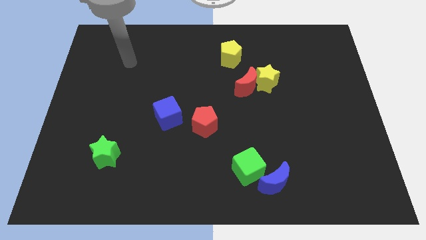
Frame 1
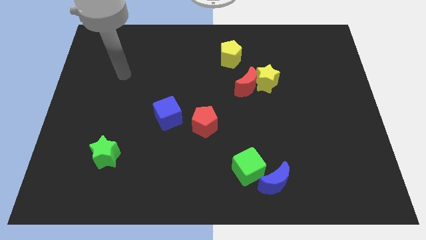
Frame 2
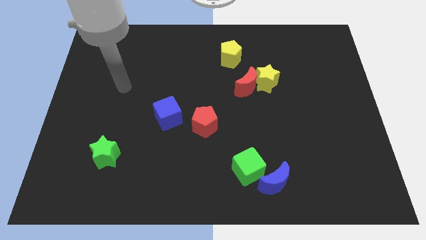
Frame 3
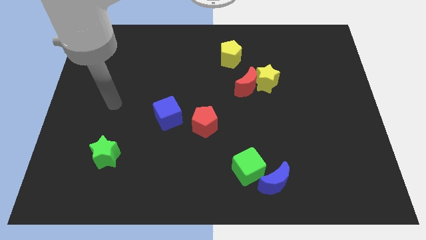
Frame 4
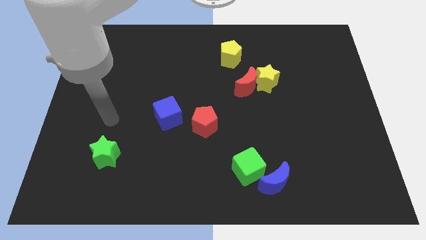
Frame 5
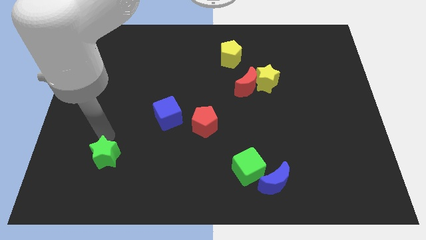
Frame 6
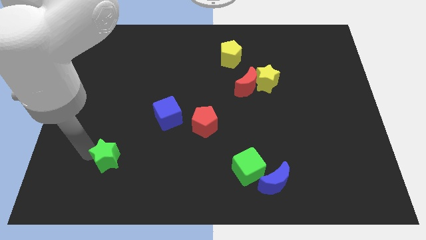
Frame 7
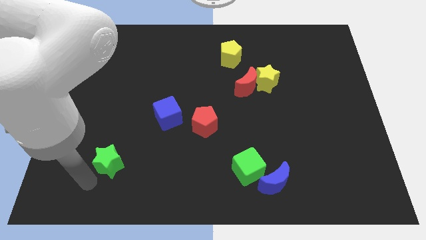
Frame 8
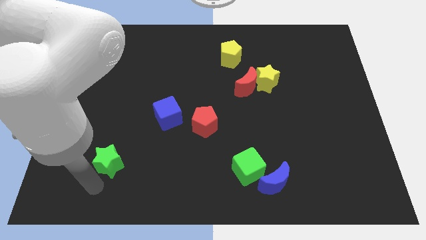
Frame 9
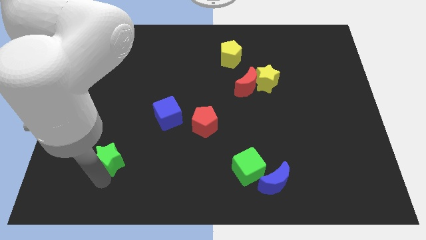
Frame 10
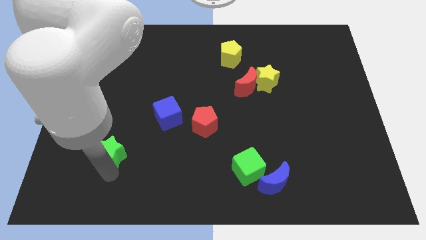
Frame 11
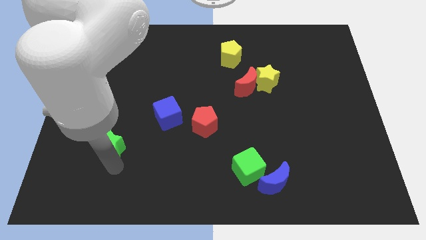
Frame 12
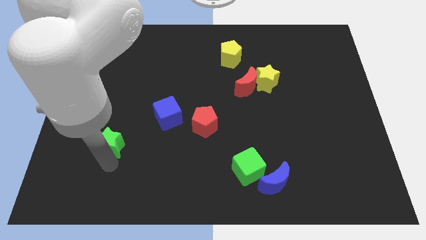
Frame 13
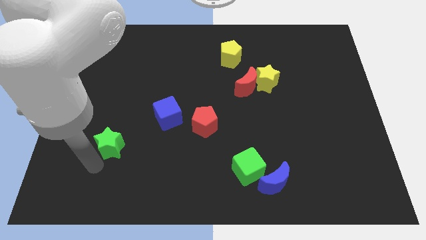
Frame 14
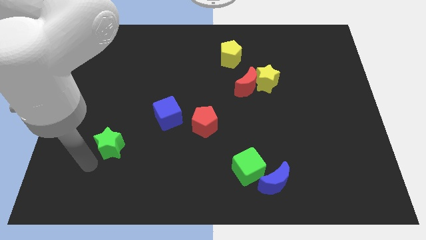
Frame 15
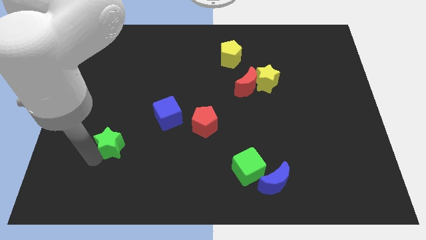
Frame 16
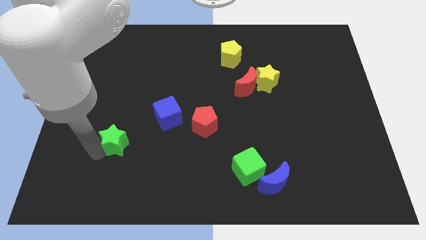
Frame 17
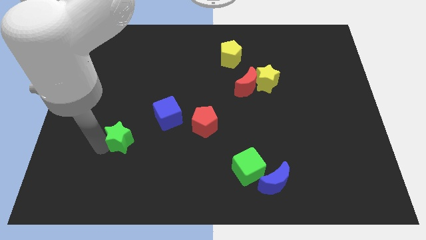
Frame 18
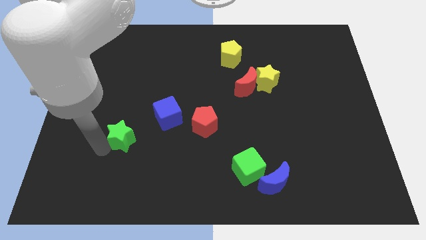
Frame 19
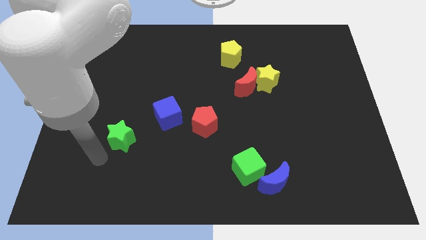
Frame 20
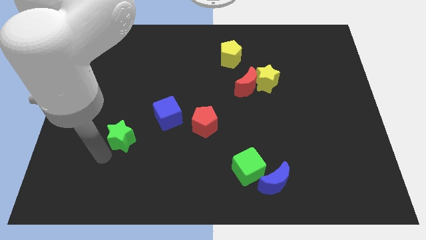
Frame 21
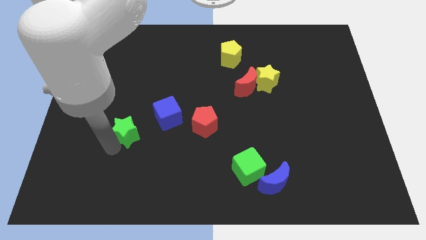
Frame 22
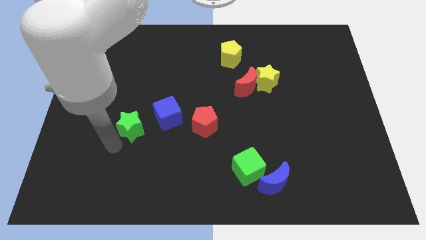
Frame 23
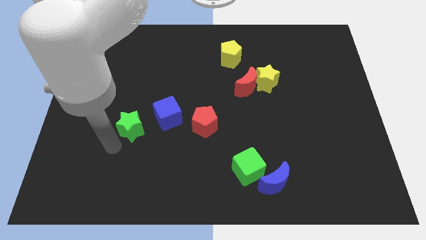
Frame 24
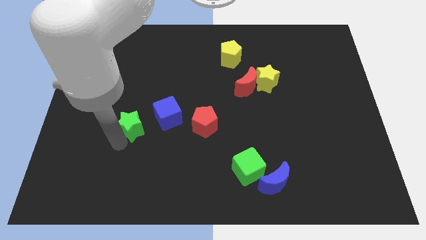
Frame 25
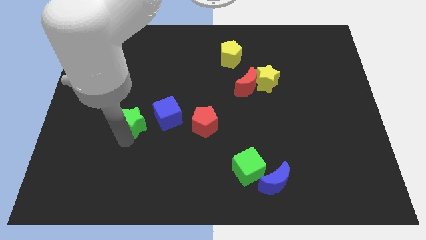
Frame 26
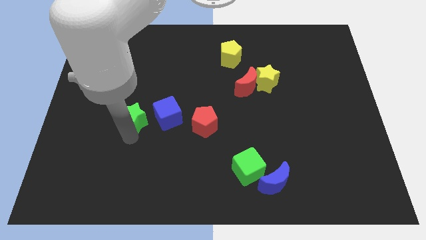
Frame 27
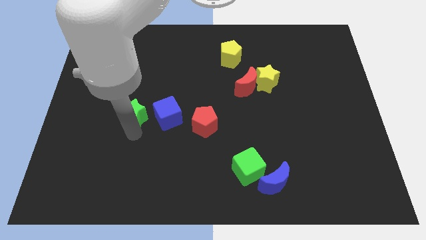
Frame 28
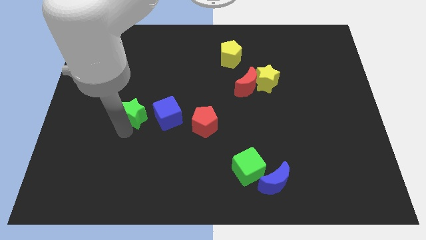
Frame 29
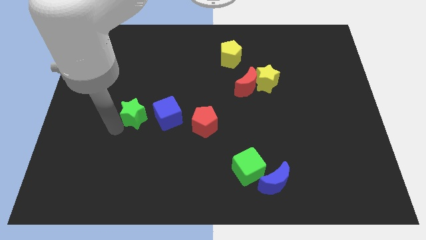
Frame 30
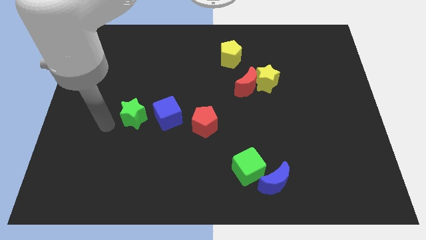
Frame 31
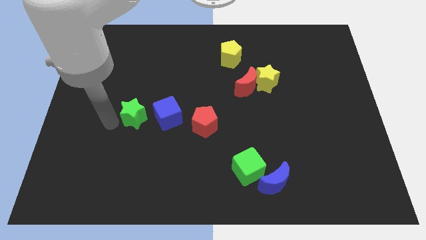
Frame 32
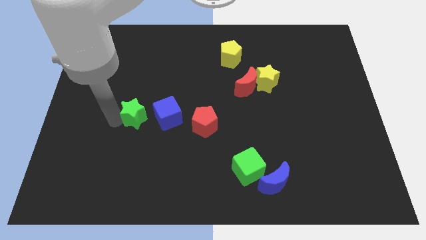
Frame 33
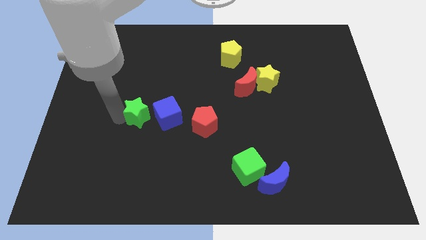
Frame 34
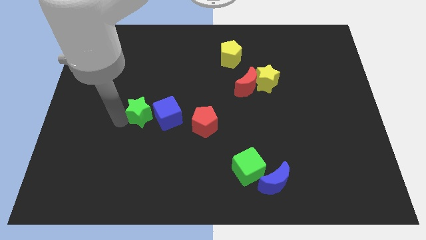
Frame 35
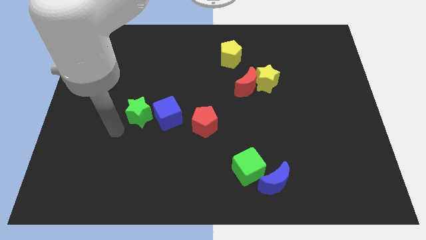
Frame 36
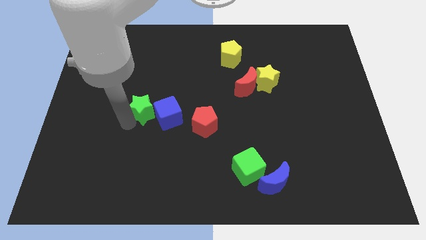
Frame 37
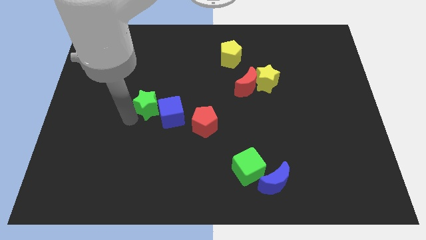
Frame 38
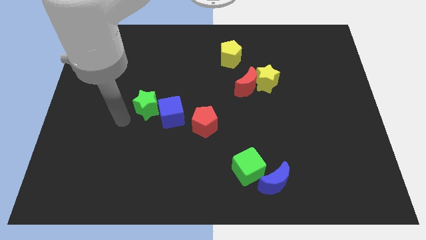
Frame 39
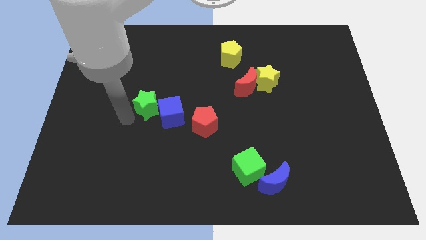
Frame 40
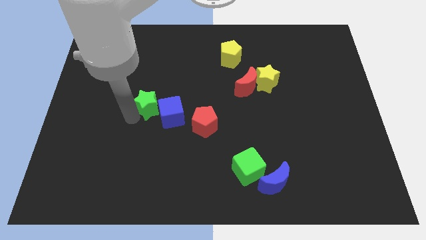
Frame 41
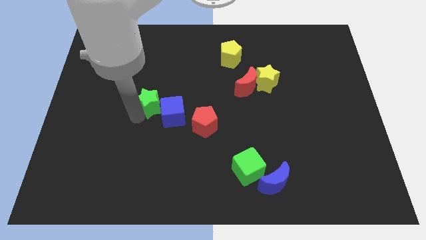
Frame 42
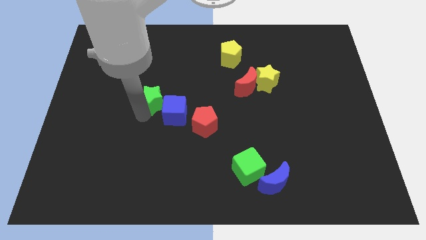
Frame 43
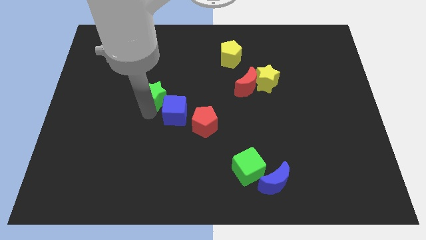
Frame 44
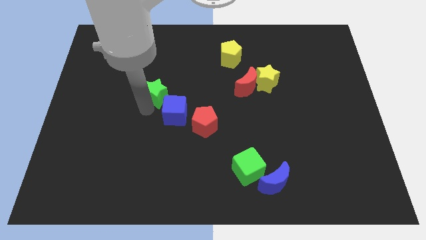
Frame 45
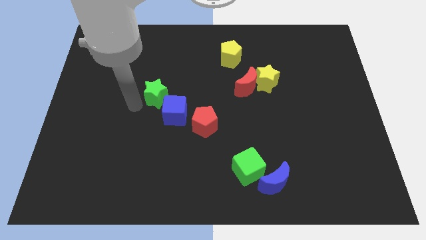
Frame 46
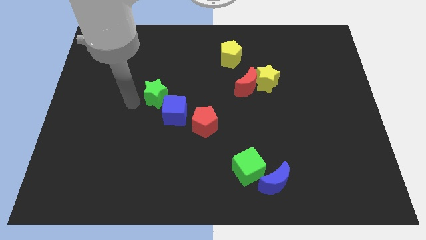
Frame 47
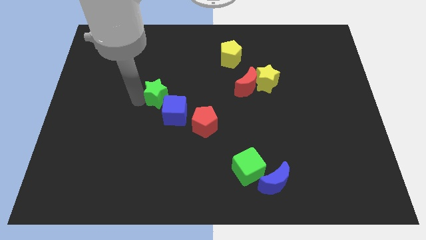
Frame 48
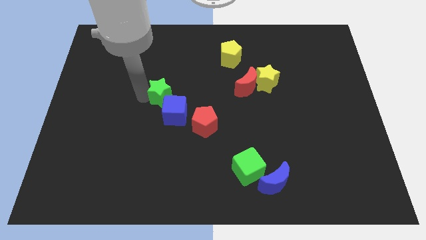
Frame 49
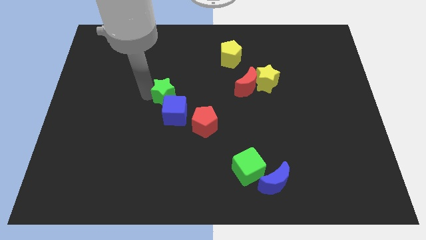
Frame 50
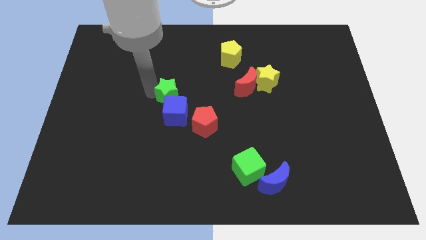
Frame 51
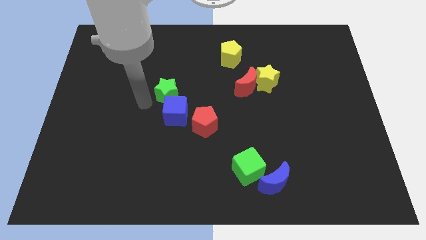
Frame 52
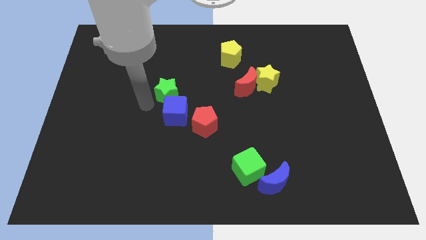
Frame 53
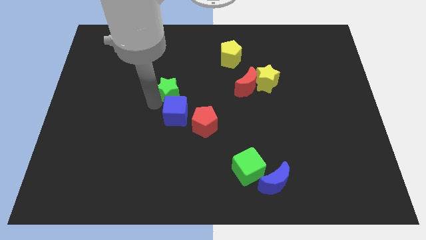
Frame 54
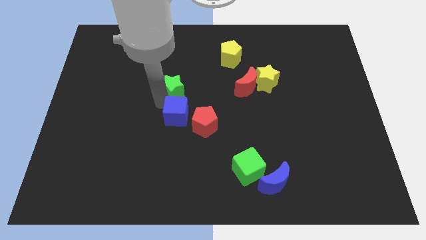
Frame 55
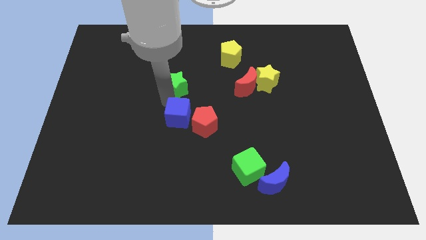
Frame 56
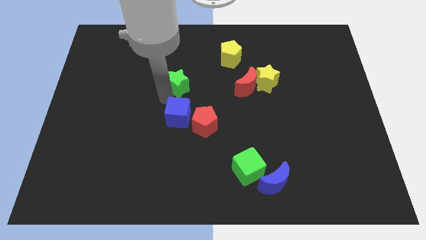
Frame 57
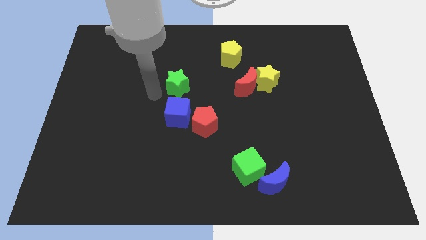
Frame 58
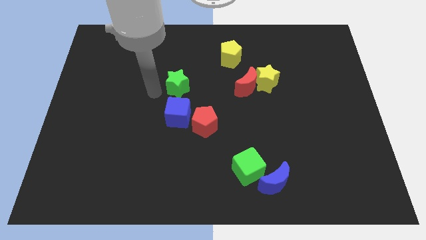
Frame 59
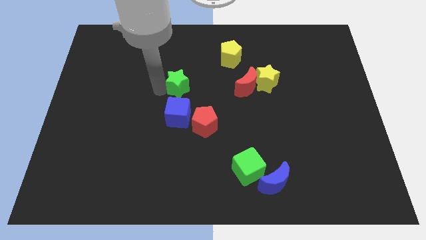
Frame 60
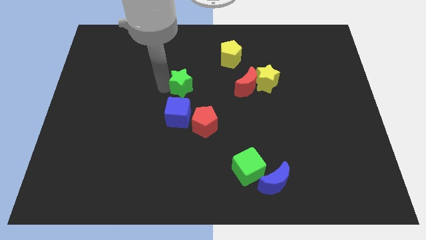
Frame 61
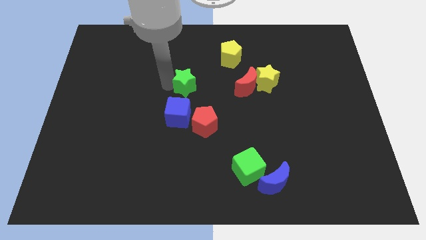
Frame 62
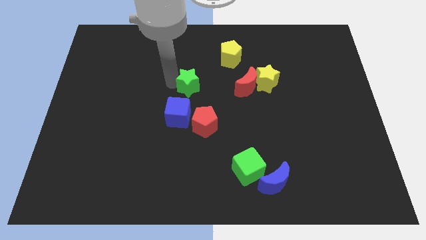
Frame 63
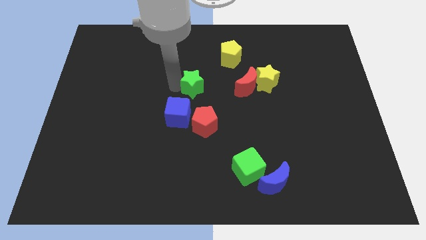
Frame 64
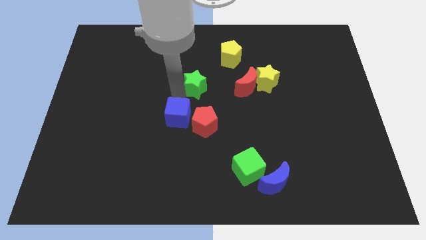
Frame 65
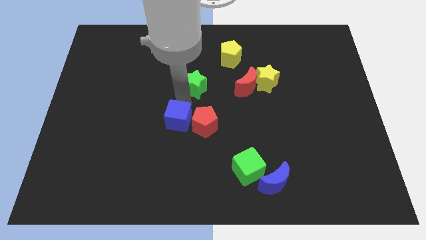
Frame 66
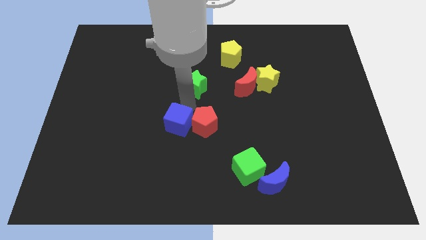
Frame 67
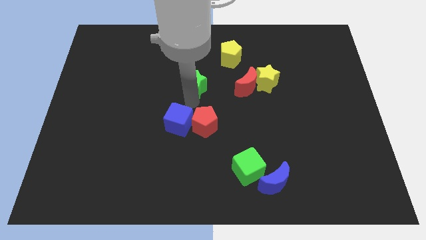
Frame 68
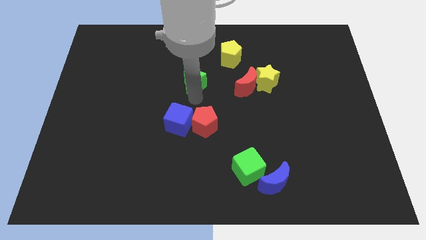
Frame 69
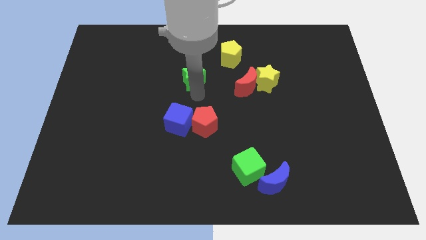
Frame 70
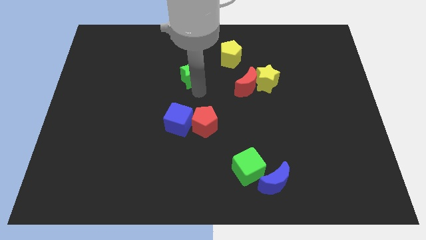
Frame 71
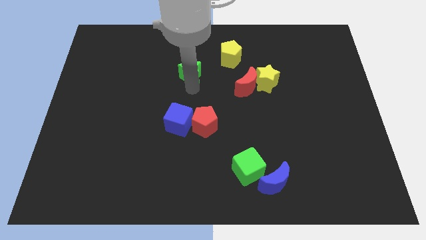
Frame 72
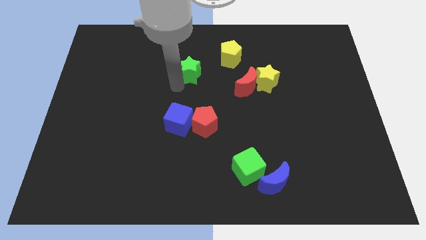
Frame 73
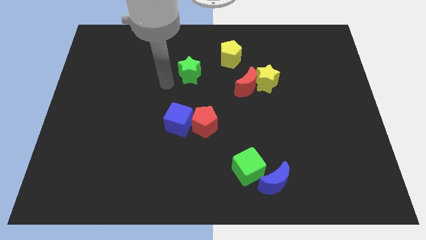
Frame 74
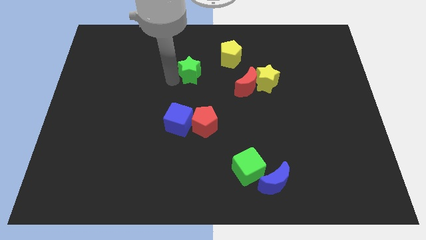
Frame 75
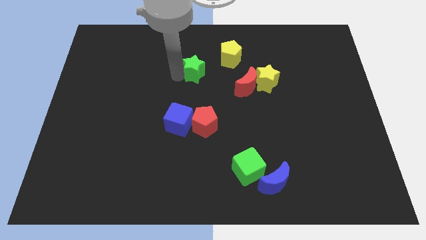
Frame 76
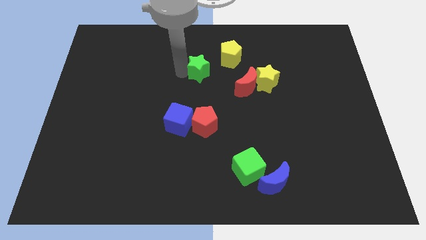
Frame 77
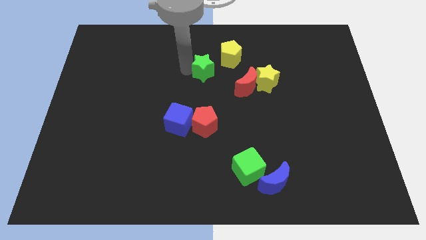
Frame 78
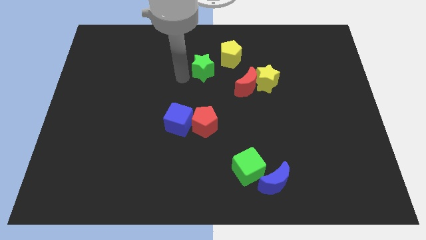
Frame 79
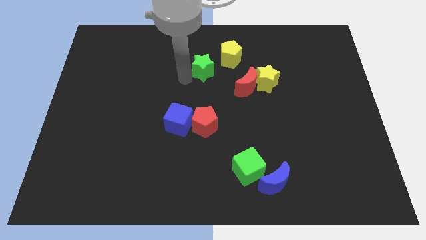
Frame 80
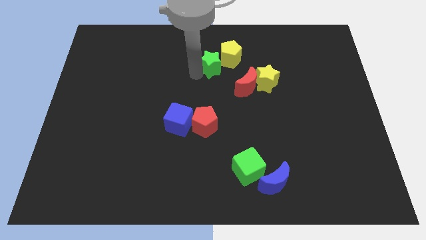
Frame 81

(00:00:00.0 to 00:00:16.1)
move the green star towards the yellow pentagon
